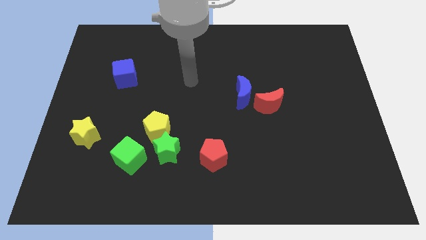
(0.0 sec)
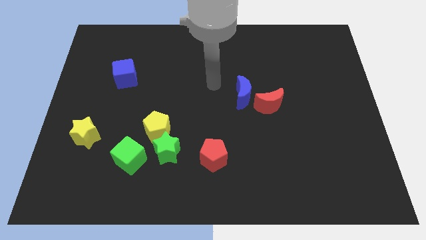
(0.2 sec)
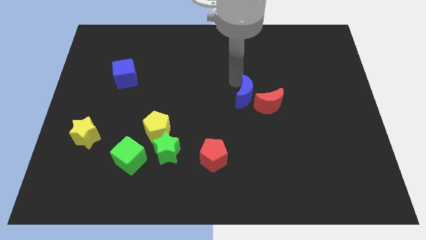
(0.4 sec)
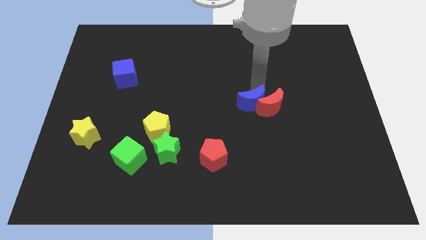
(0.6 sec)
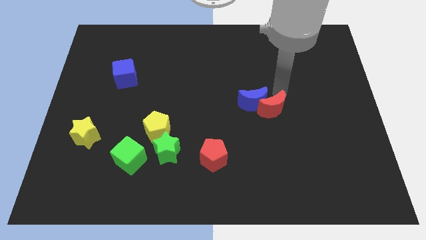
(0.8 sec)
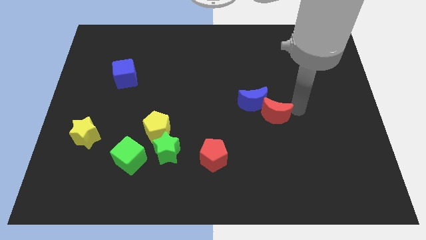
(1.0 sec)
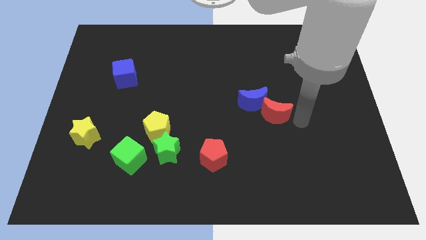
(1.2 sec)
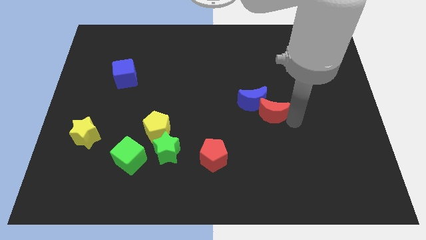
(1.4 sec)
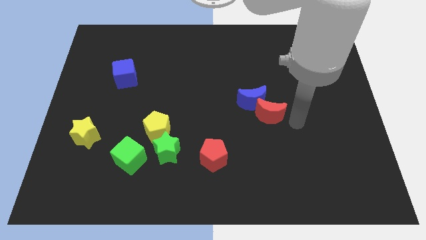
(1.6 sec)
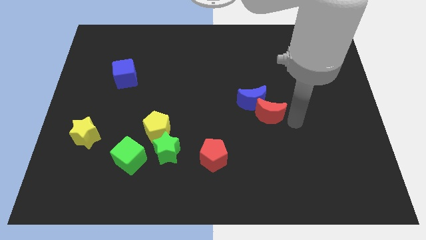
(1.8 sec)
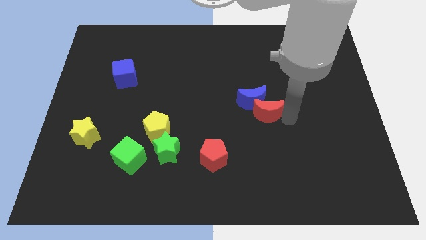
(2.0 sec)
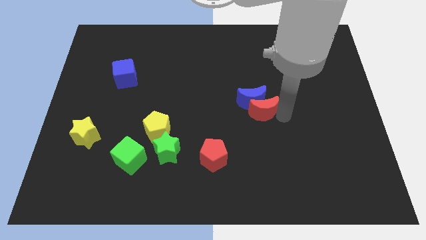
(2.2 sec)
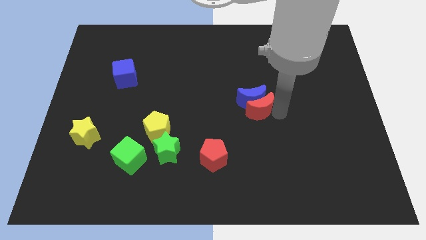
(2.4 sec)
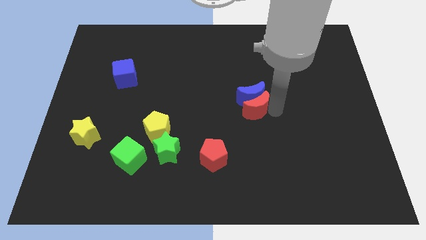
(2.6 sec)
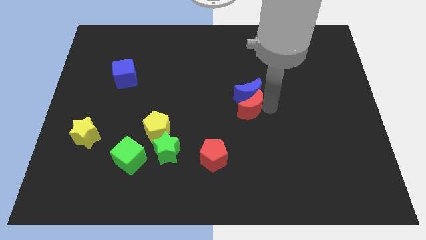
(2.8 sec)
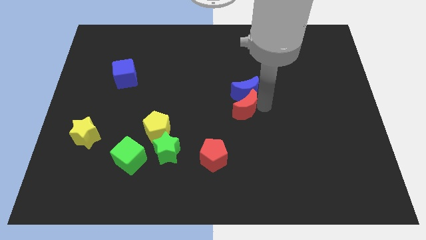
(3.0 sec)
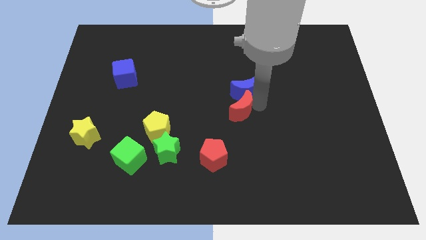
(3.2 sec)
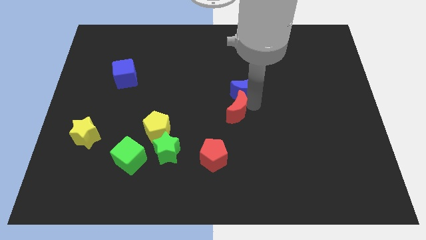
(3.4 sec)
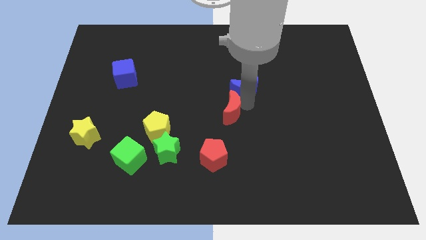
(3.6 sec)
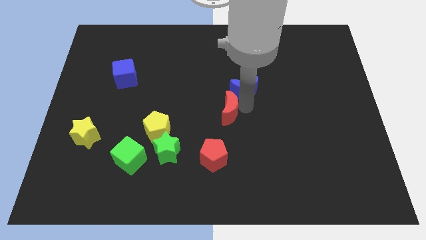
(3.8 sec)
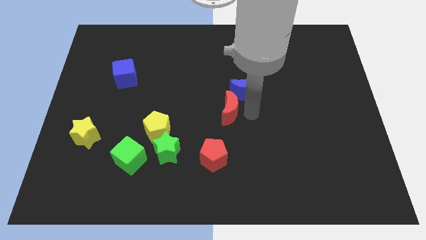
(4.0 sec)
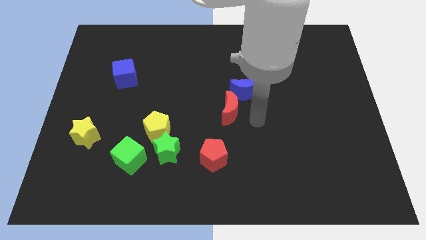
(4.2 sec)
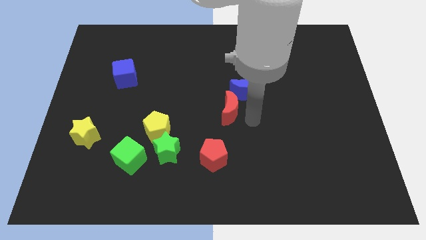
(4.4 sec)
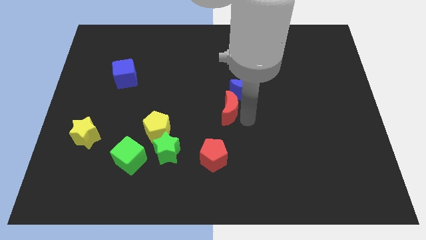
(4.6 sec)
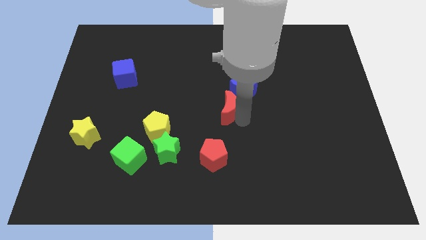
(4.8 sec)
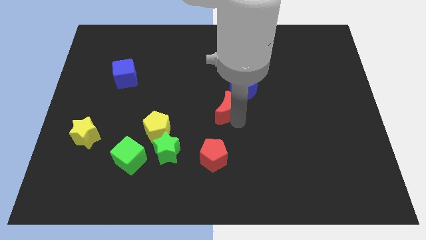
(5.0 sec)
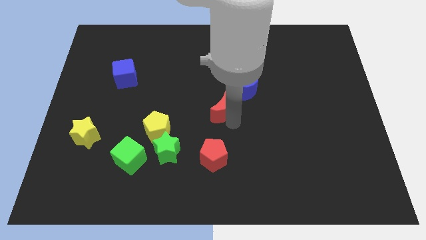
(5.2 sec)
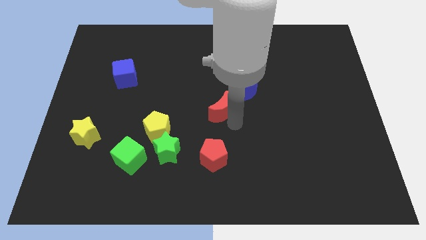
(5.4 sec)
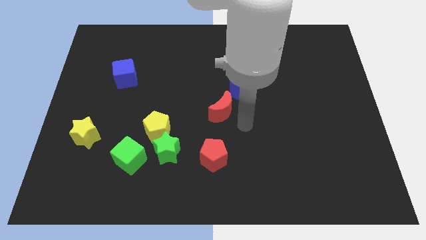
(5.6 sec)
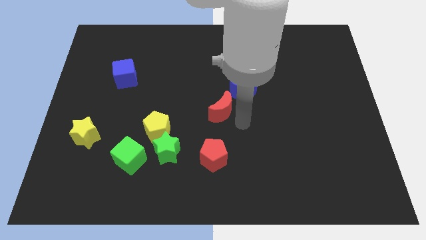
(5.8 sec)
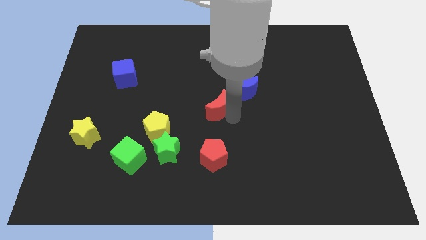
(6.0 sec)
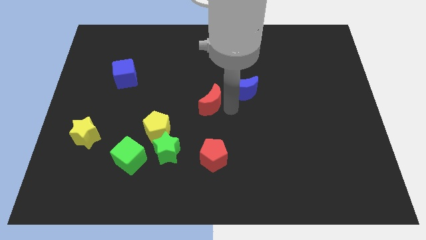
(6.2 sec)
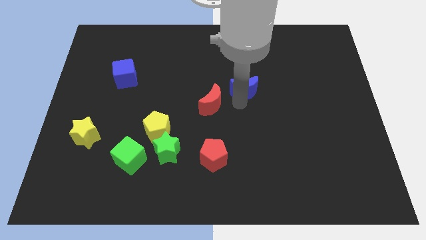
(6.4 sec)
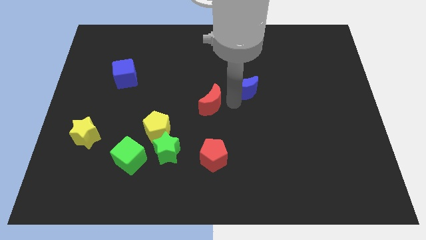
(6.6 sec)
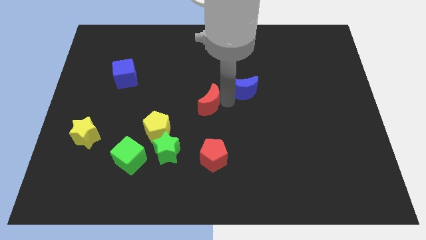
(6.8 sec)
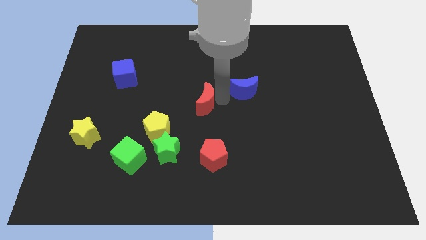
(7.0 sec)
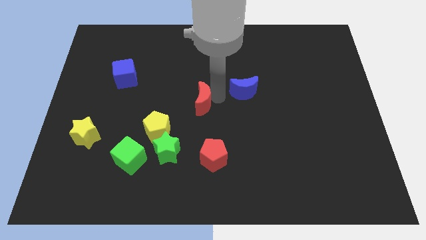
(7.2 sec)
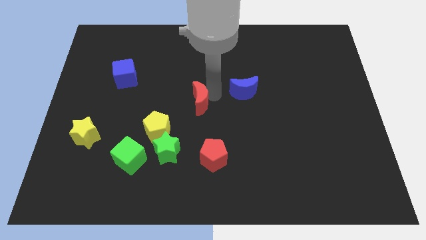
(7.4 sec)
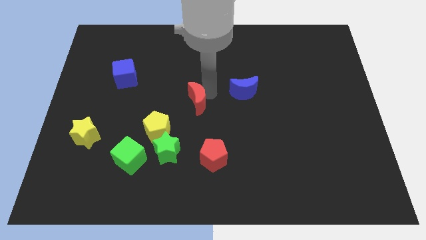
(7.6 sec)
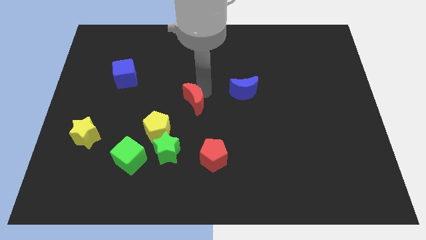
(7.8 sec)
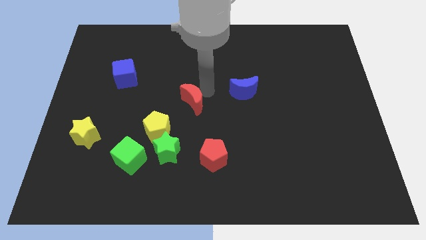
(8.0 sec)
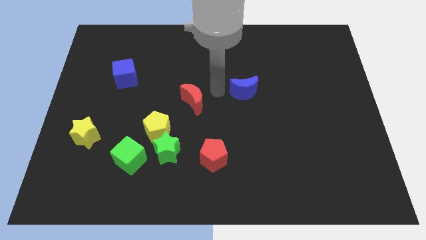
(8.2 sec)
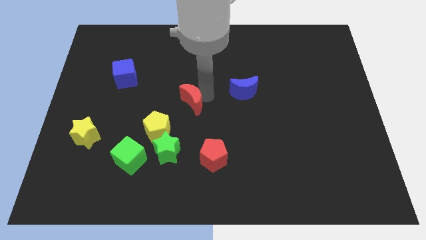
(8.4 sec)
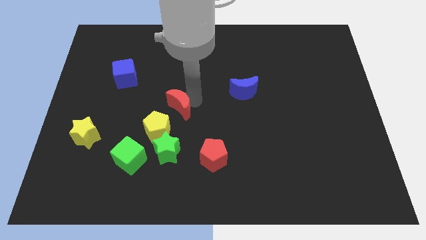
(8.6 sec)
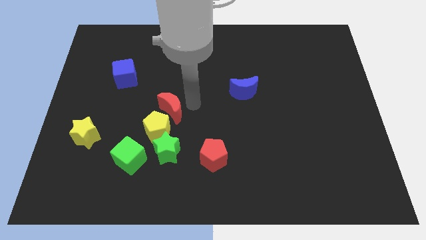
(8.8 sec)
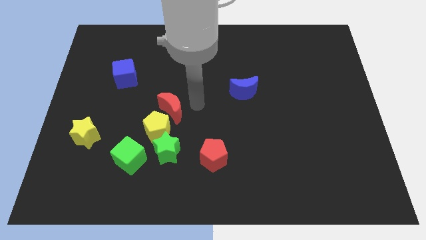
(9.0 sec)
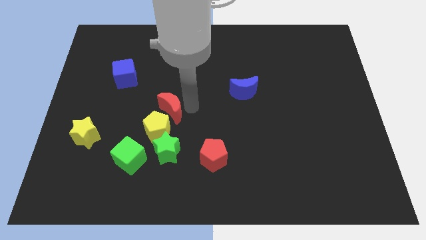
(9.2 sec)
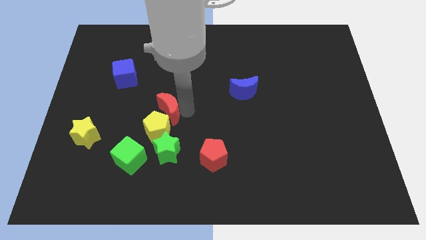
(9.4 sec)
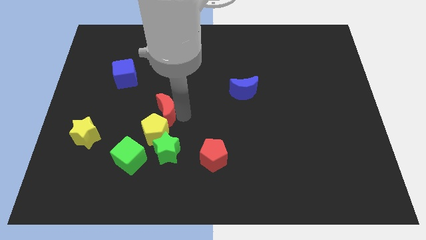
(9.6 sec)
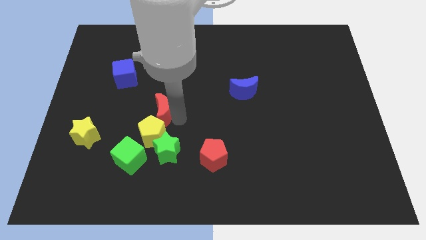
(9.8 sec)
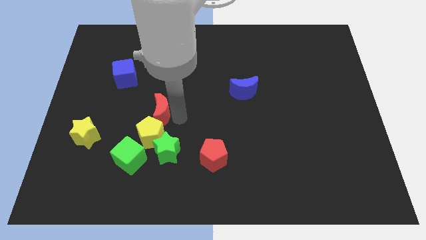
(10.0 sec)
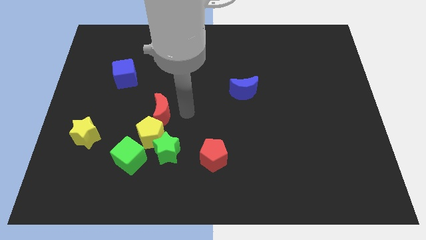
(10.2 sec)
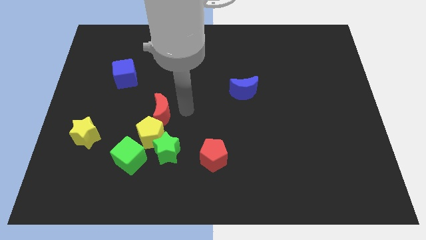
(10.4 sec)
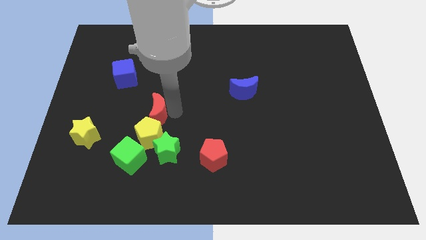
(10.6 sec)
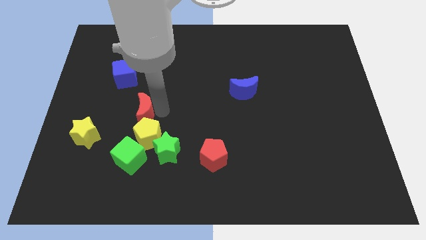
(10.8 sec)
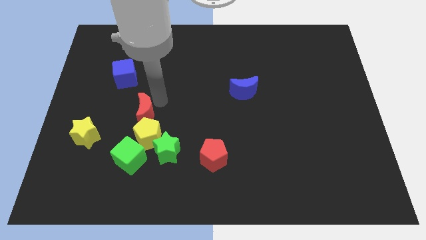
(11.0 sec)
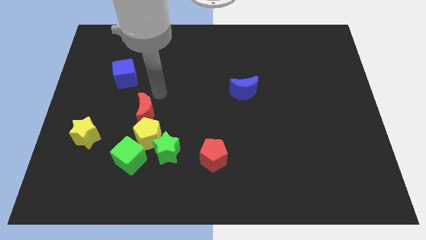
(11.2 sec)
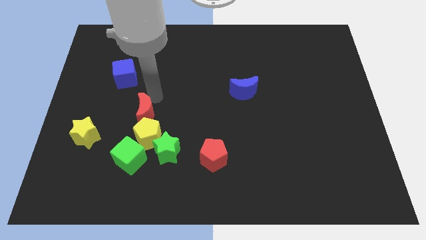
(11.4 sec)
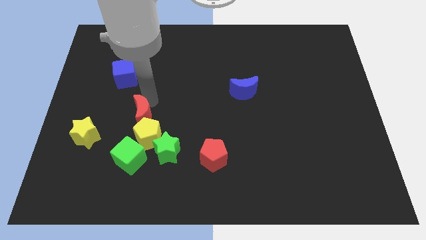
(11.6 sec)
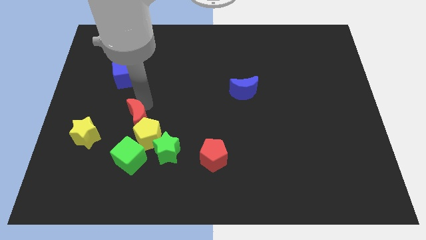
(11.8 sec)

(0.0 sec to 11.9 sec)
slide the red moon right of the yellow star

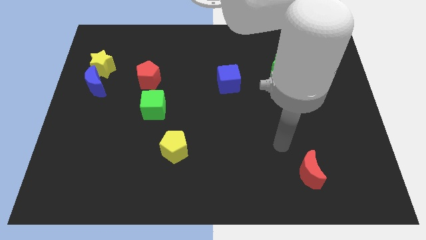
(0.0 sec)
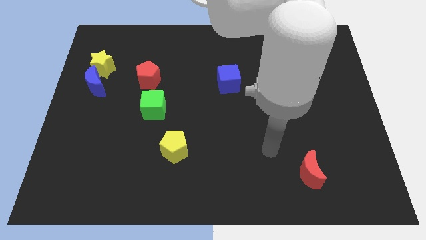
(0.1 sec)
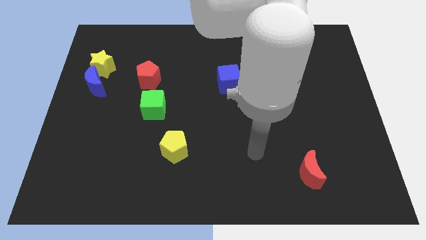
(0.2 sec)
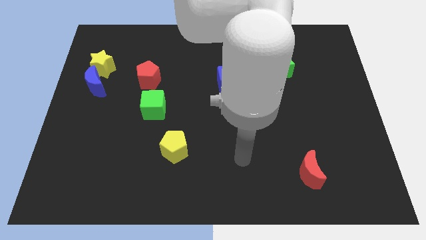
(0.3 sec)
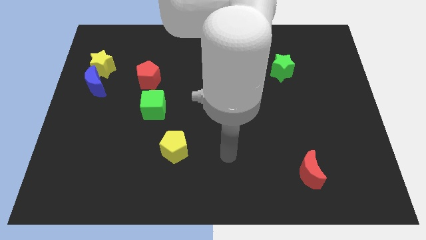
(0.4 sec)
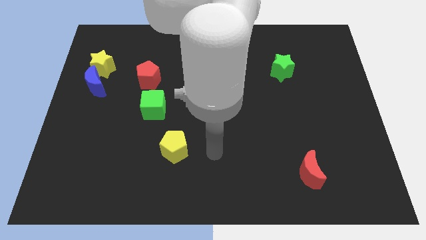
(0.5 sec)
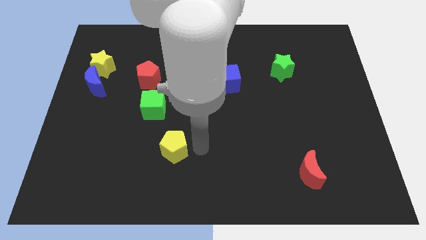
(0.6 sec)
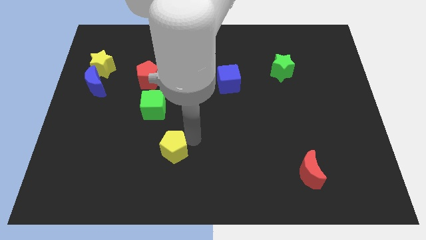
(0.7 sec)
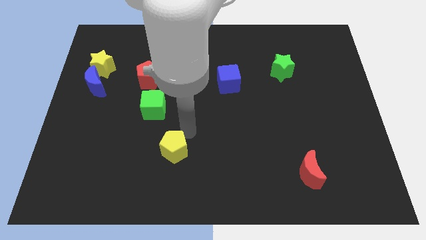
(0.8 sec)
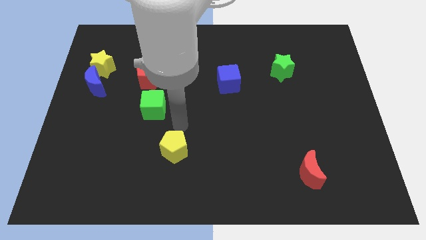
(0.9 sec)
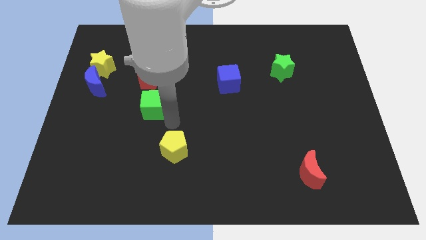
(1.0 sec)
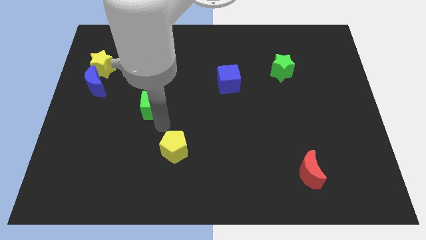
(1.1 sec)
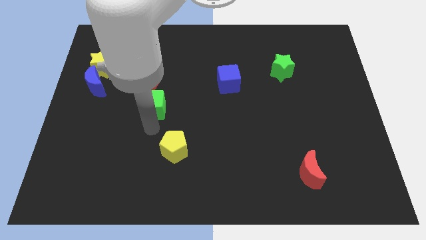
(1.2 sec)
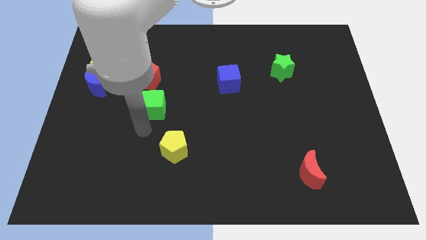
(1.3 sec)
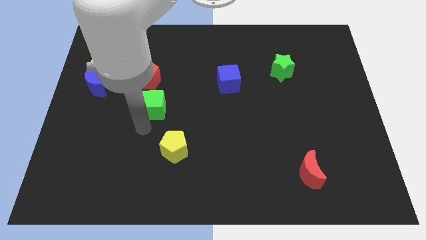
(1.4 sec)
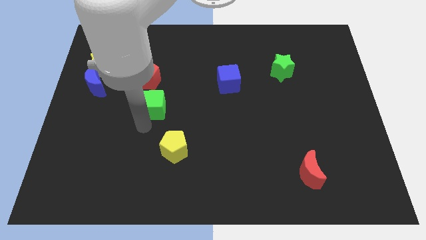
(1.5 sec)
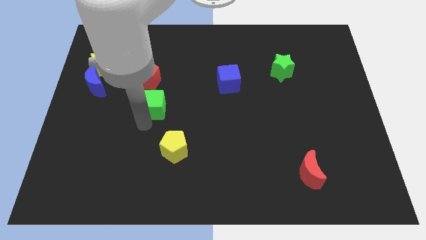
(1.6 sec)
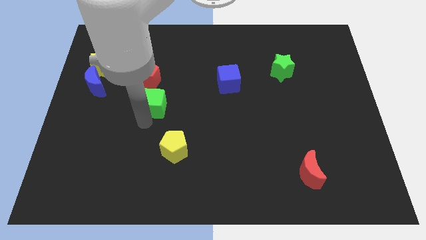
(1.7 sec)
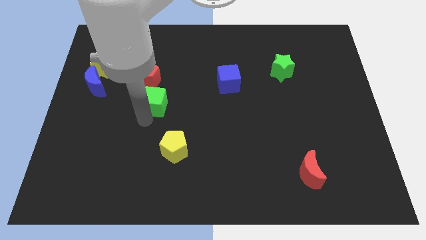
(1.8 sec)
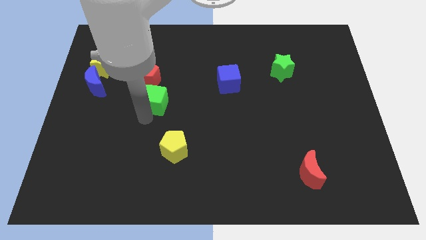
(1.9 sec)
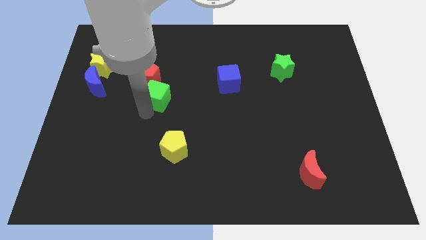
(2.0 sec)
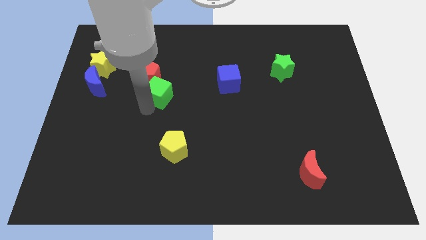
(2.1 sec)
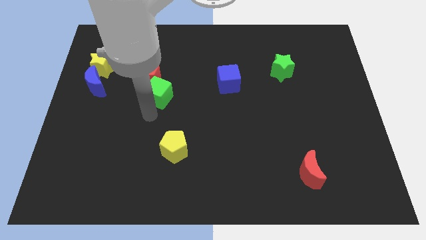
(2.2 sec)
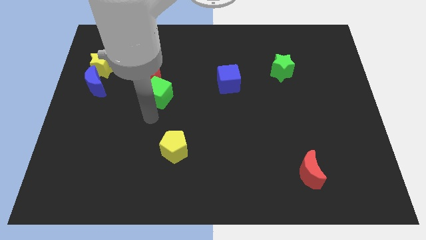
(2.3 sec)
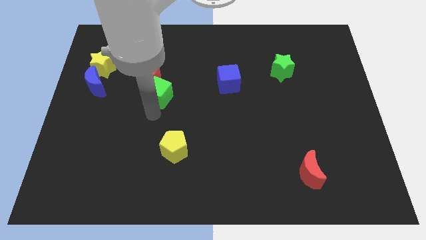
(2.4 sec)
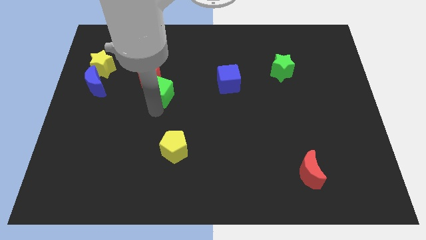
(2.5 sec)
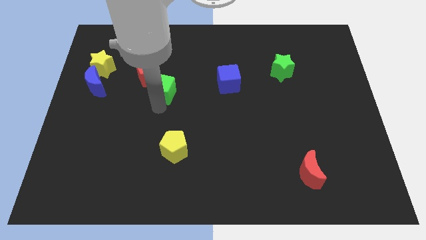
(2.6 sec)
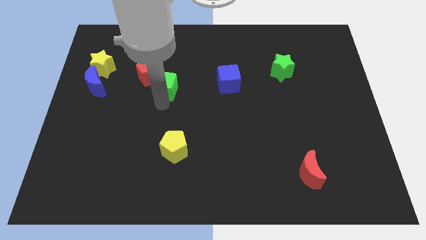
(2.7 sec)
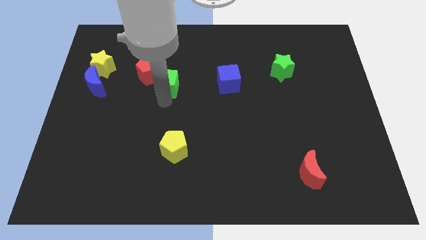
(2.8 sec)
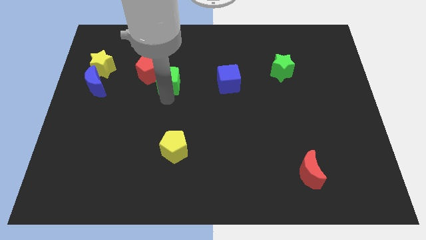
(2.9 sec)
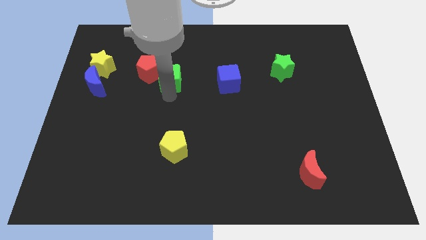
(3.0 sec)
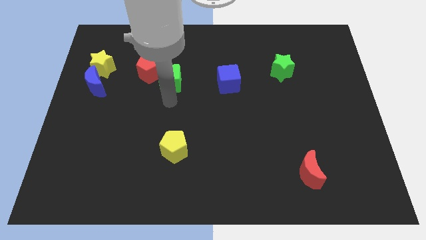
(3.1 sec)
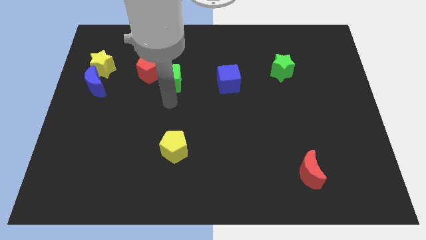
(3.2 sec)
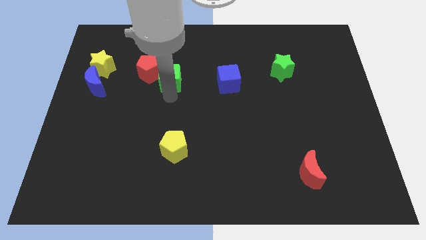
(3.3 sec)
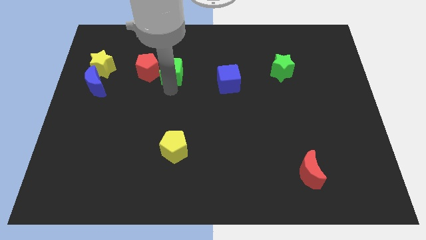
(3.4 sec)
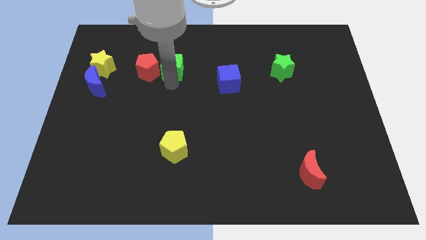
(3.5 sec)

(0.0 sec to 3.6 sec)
move the green cube diagonally up and to the right of the red pentagon
